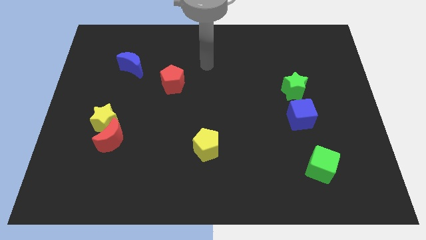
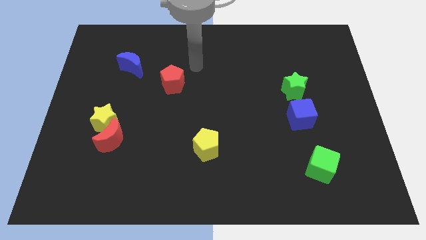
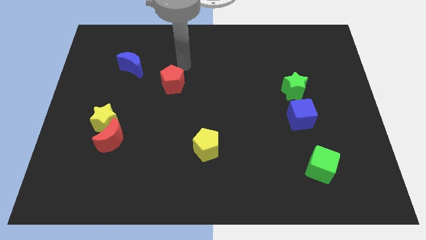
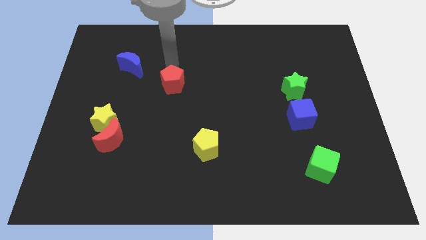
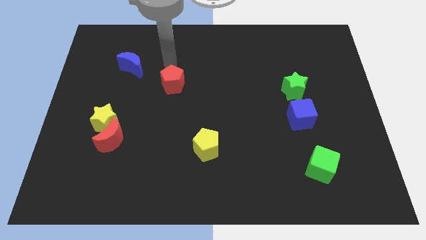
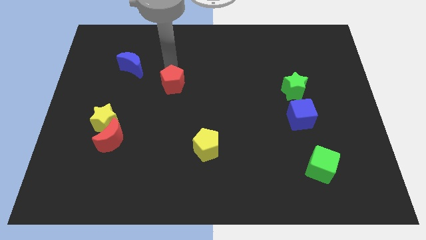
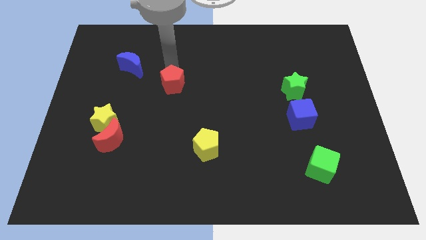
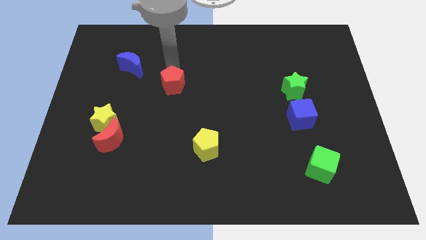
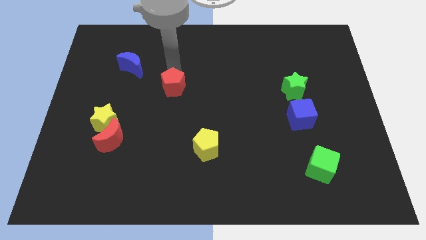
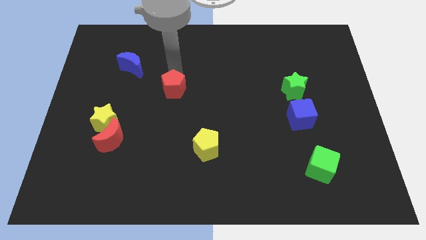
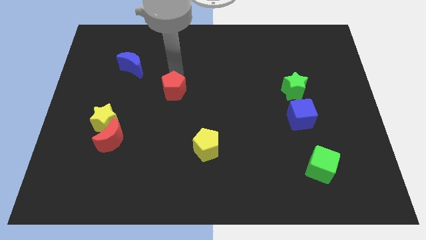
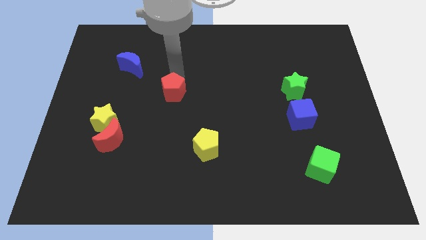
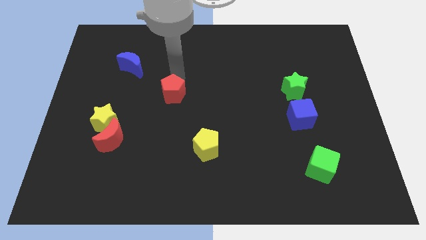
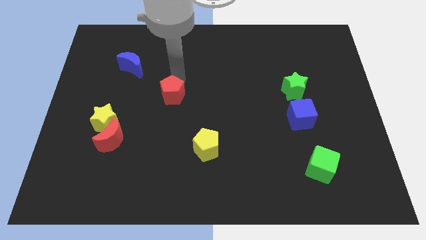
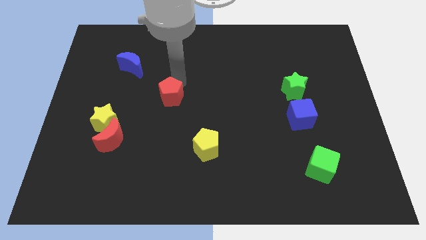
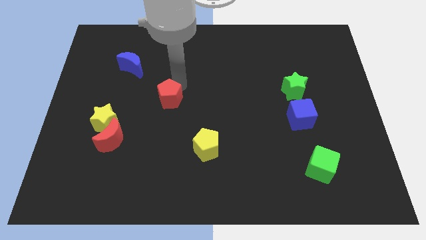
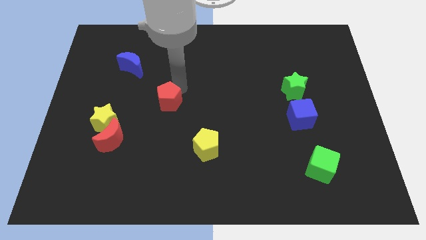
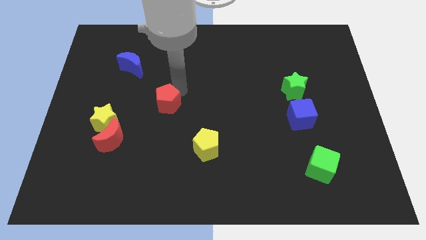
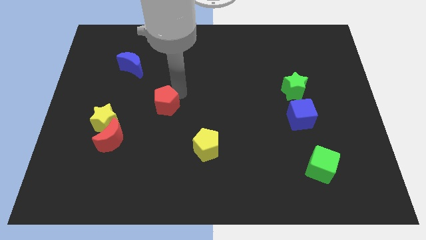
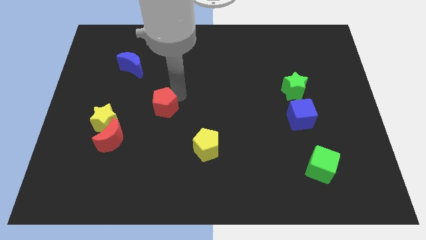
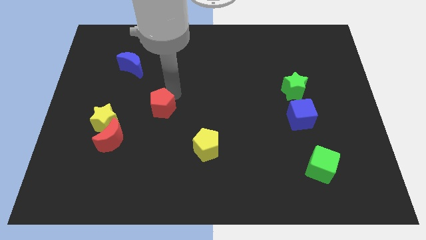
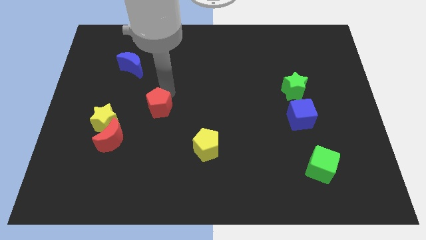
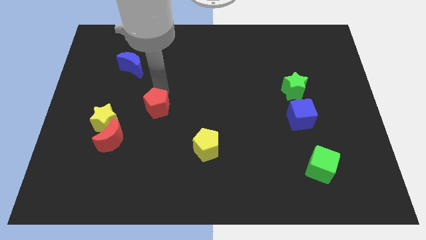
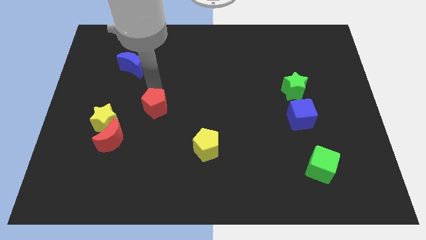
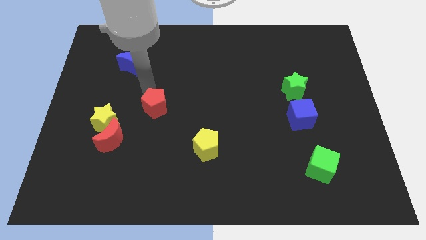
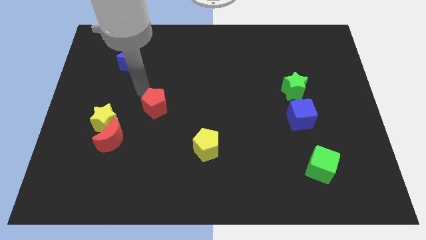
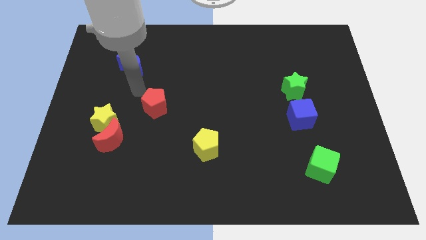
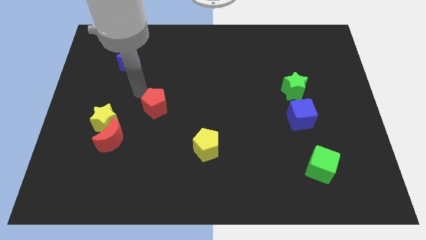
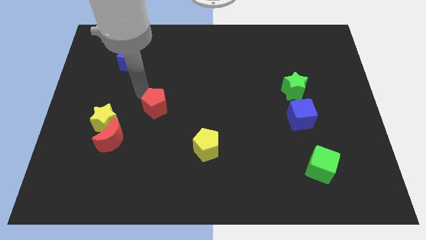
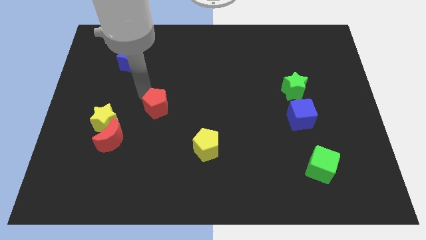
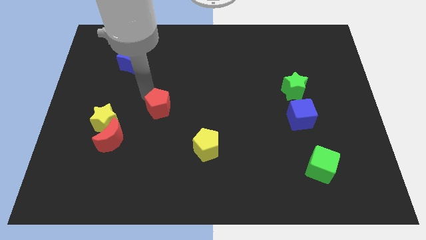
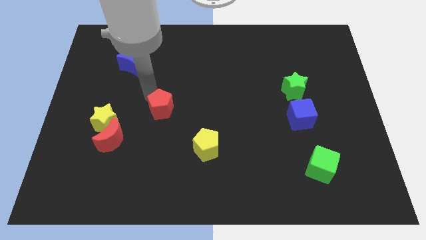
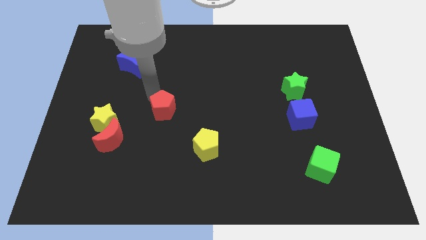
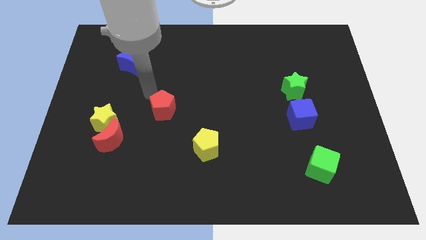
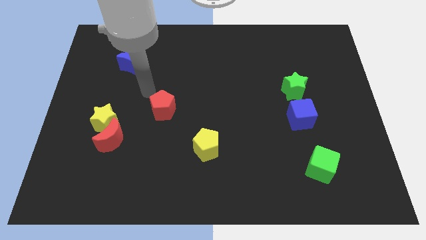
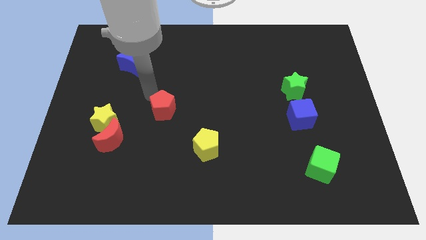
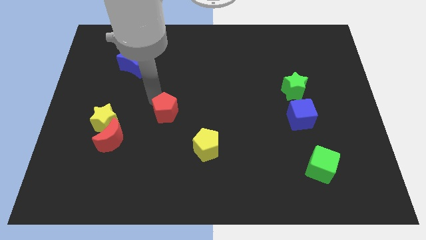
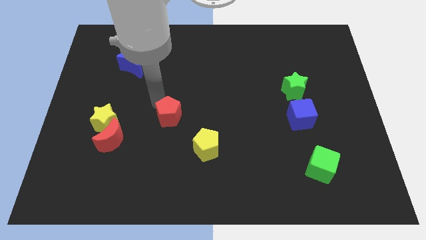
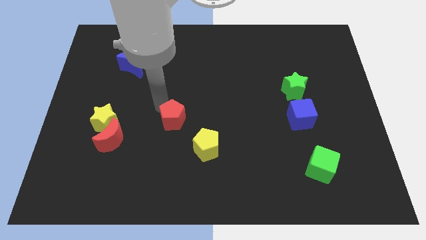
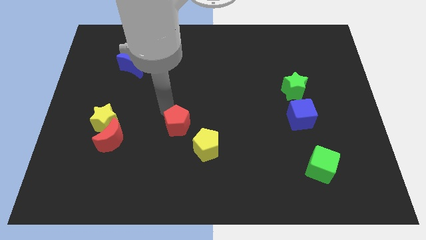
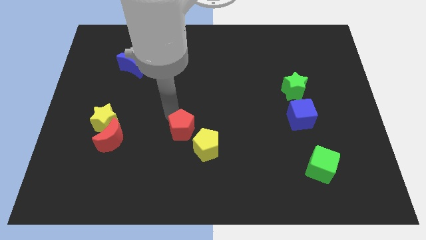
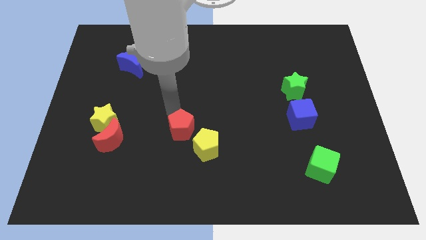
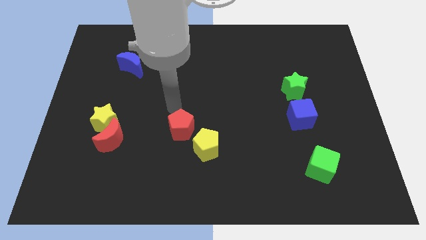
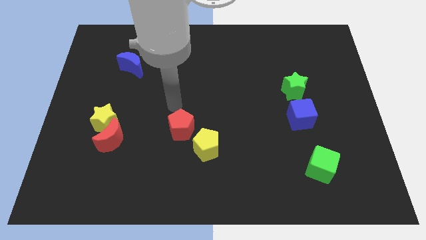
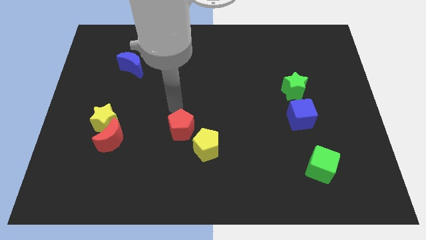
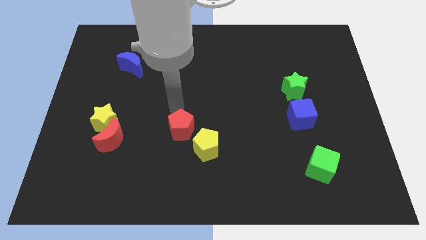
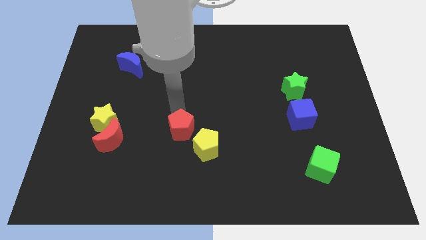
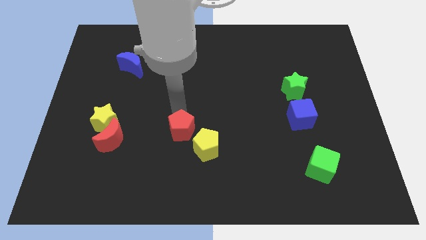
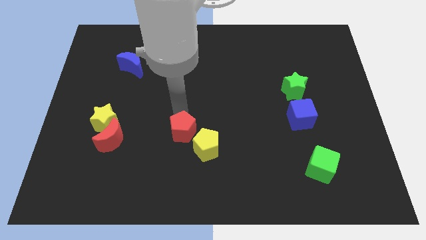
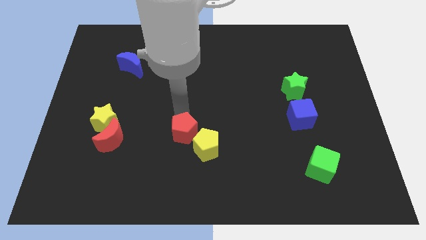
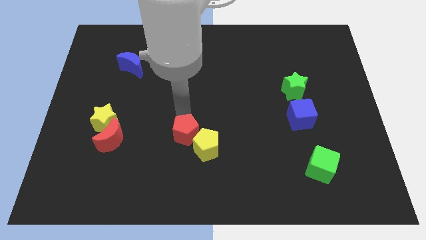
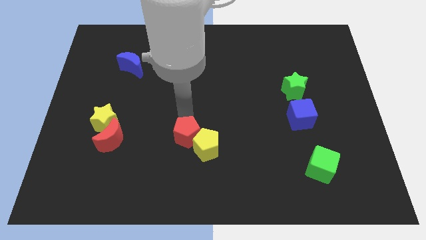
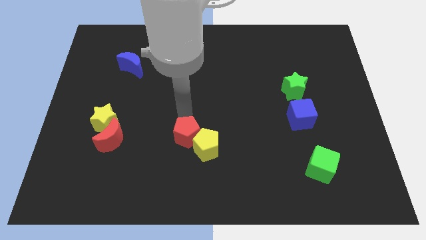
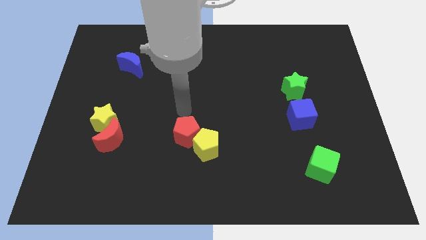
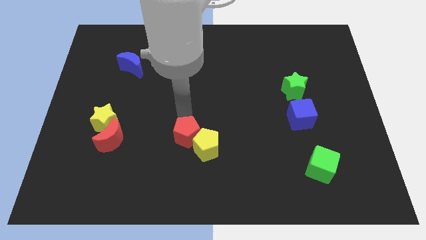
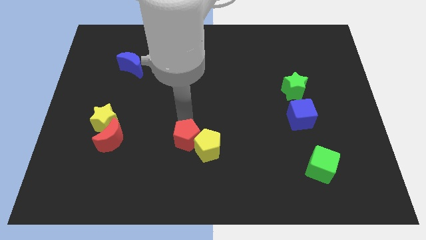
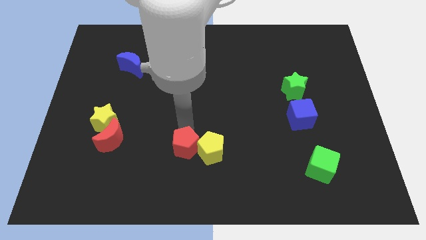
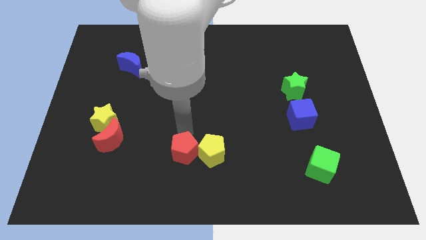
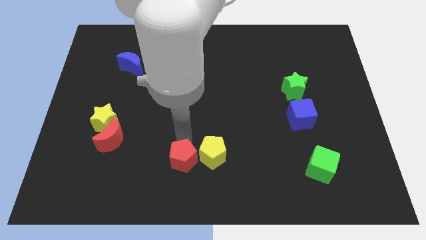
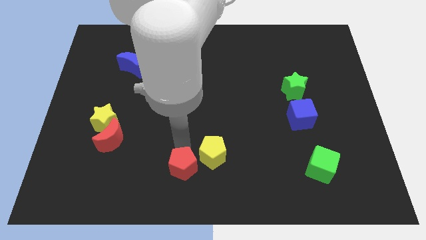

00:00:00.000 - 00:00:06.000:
put the red pentagon to the bottom
